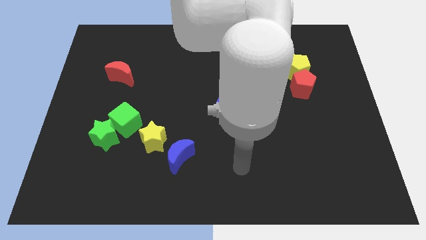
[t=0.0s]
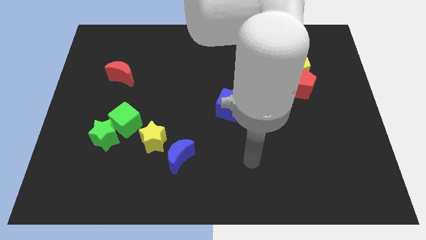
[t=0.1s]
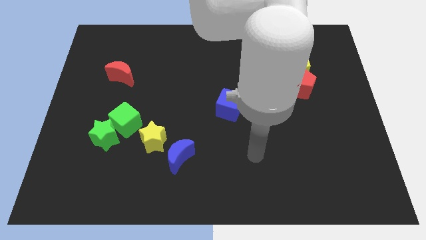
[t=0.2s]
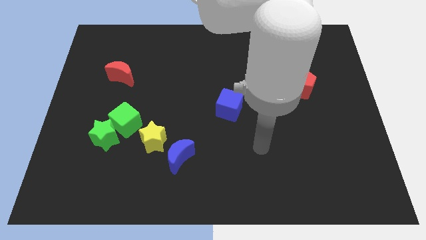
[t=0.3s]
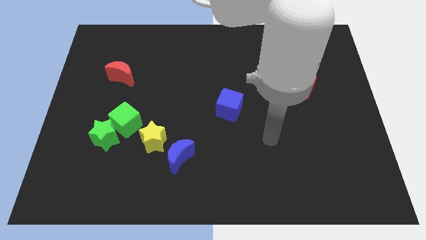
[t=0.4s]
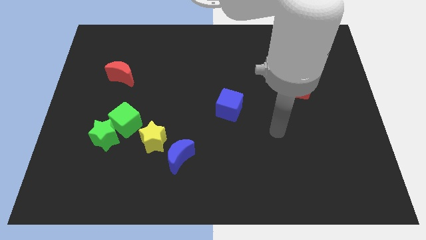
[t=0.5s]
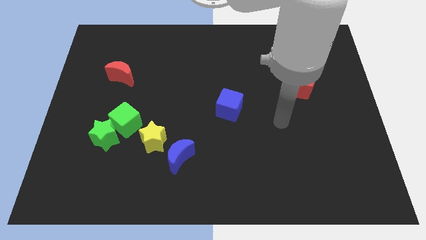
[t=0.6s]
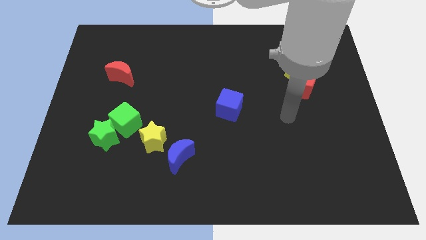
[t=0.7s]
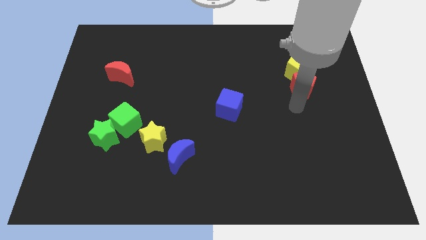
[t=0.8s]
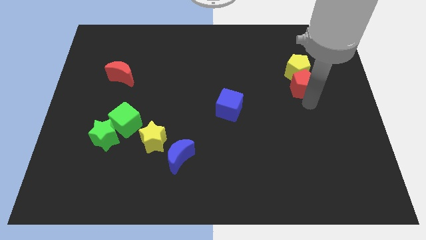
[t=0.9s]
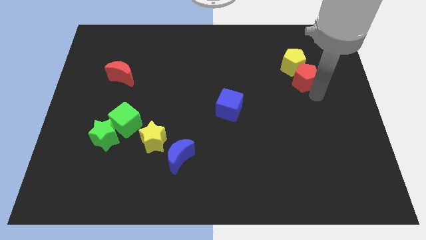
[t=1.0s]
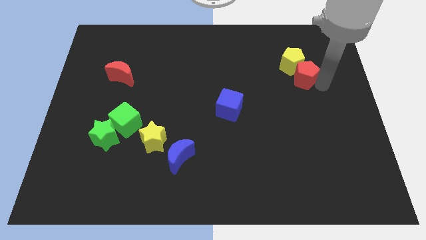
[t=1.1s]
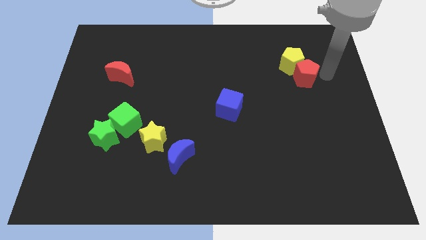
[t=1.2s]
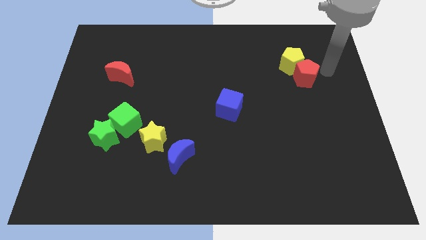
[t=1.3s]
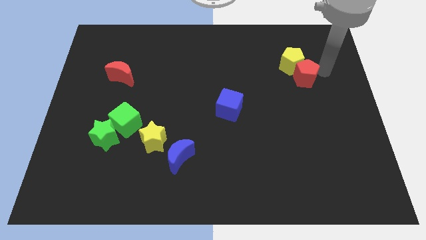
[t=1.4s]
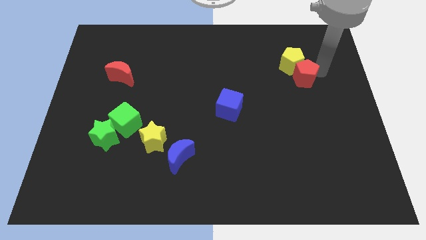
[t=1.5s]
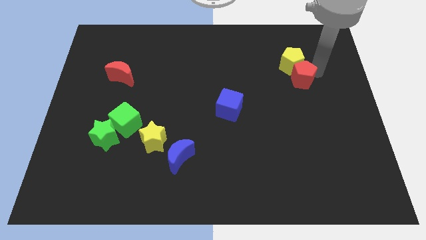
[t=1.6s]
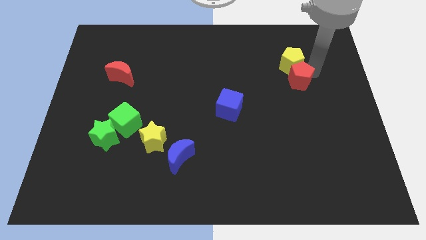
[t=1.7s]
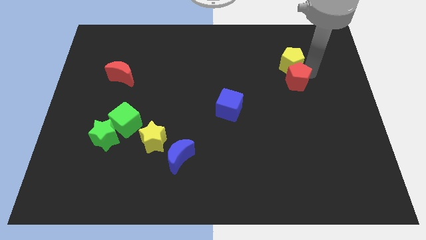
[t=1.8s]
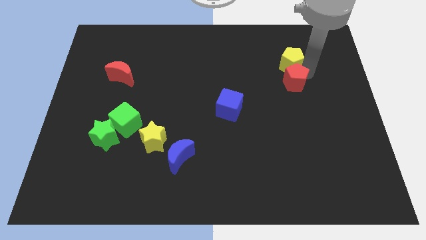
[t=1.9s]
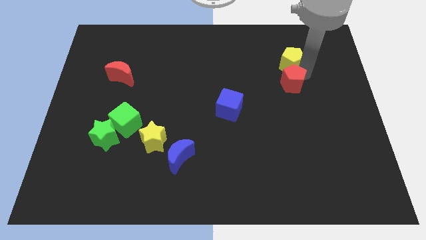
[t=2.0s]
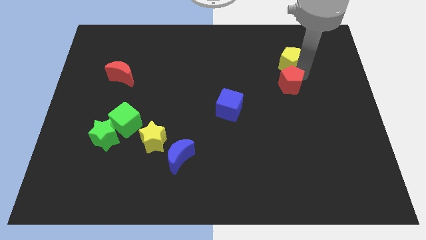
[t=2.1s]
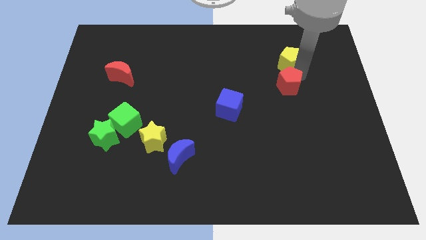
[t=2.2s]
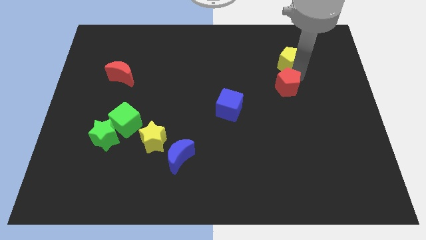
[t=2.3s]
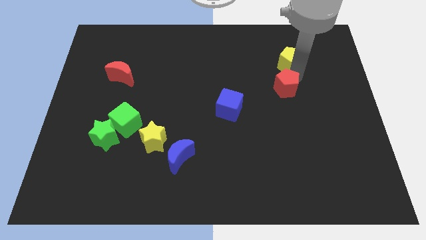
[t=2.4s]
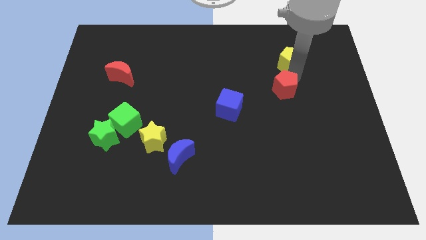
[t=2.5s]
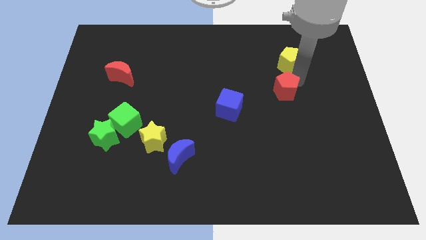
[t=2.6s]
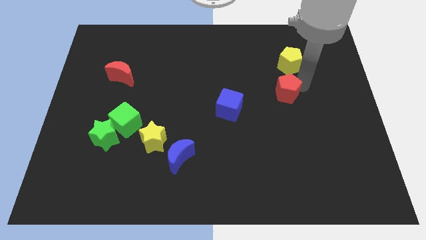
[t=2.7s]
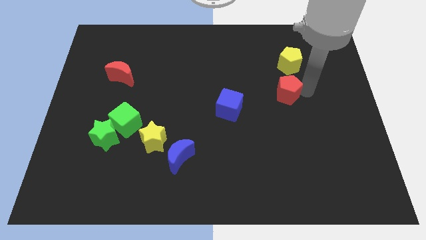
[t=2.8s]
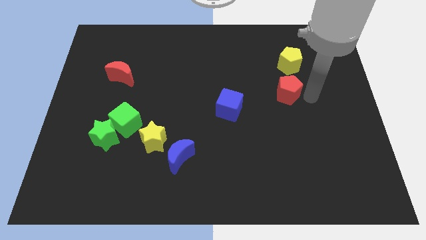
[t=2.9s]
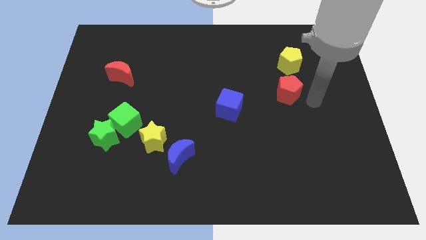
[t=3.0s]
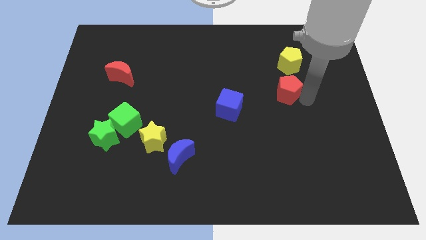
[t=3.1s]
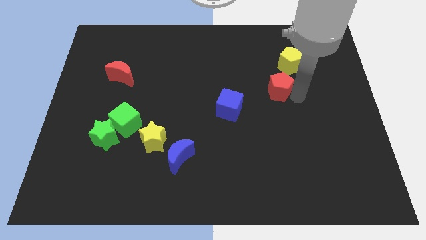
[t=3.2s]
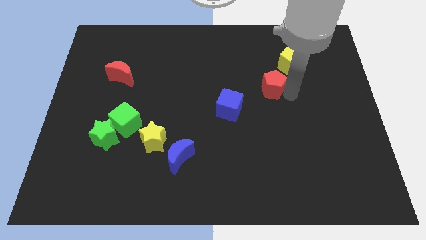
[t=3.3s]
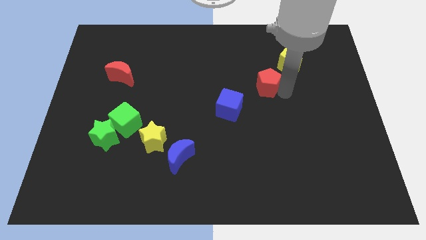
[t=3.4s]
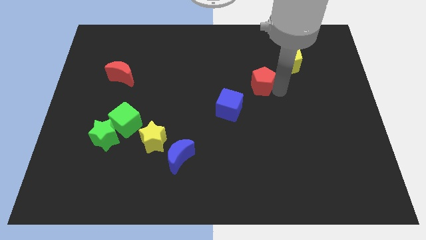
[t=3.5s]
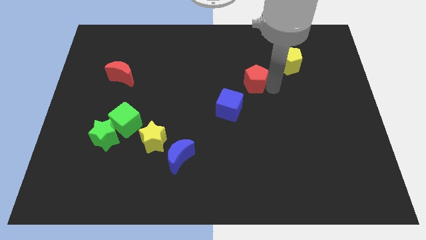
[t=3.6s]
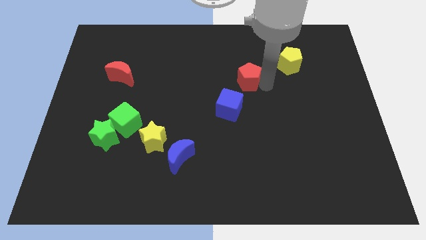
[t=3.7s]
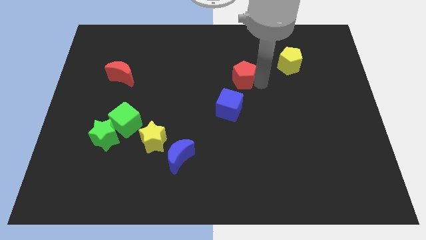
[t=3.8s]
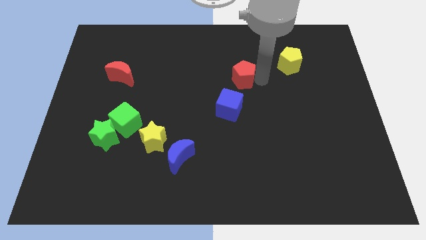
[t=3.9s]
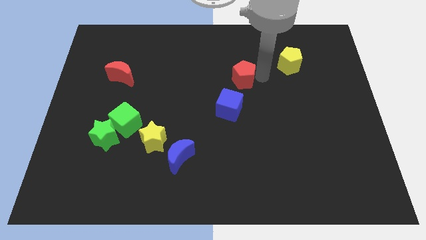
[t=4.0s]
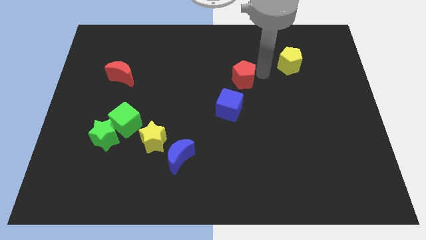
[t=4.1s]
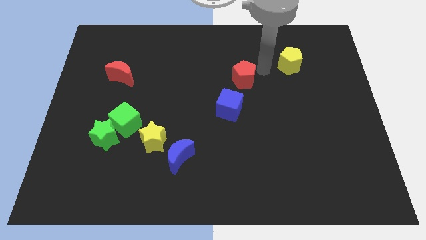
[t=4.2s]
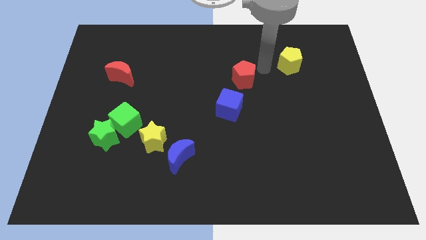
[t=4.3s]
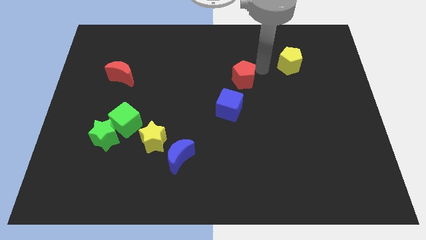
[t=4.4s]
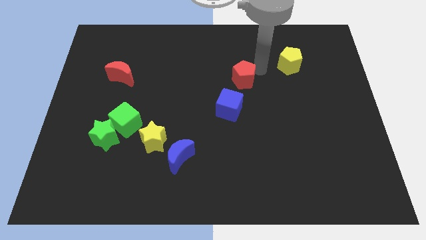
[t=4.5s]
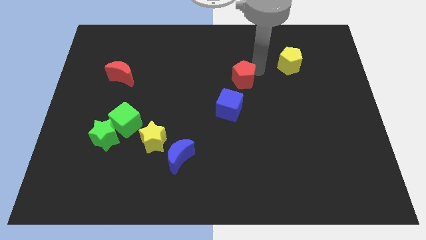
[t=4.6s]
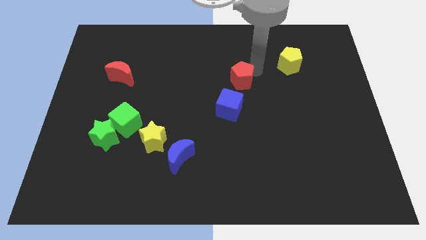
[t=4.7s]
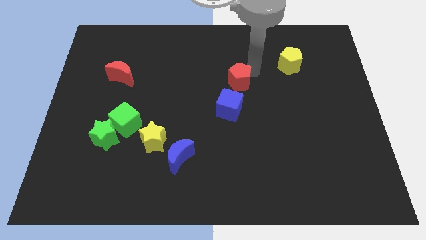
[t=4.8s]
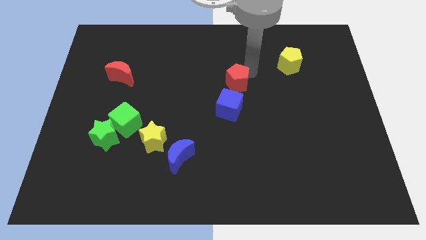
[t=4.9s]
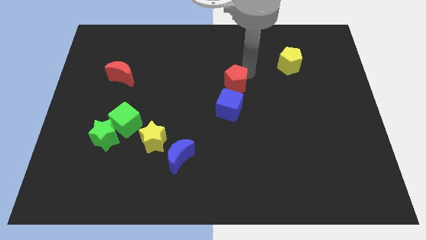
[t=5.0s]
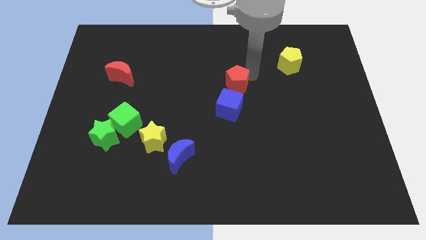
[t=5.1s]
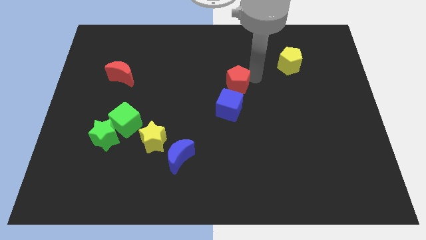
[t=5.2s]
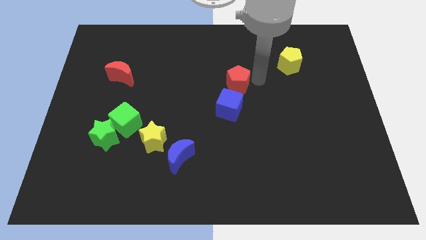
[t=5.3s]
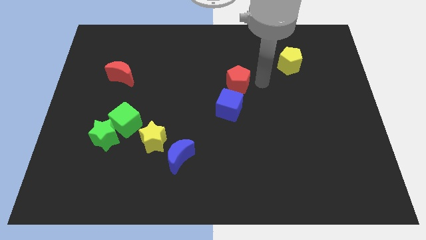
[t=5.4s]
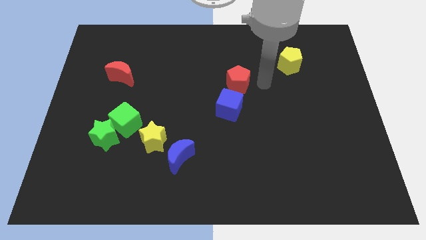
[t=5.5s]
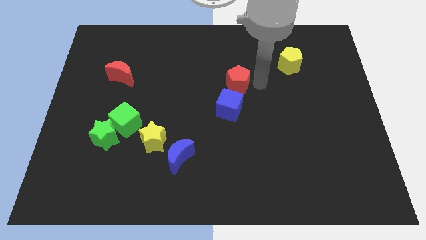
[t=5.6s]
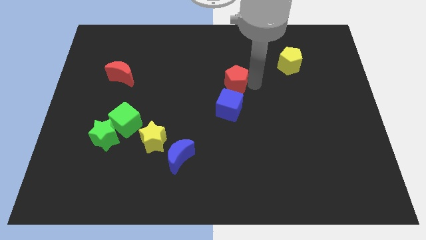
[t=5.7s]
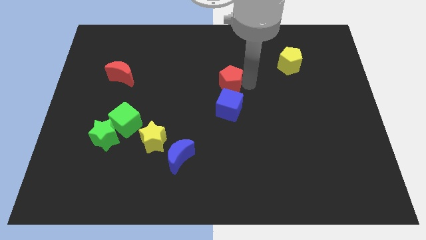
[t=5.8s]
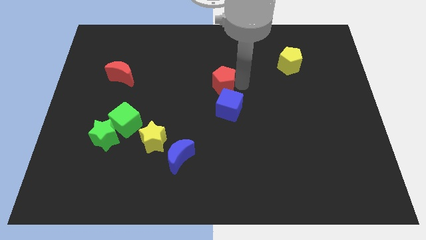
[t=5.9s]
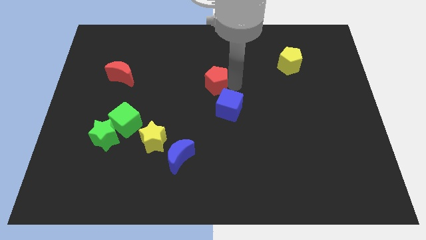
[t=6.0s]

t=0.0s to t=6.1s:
slide the red pentagon to the left

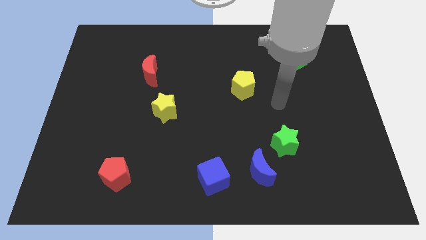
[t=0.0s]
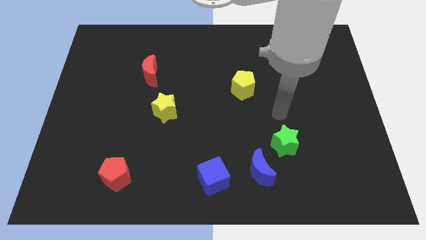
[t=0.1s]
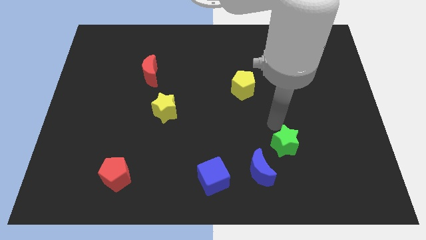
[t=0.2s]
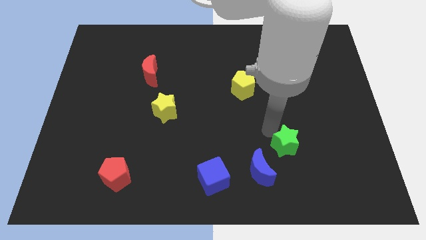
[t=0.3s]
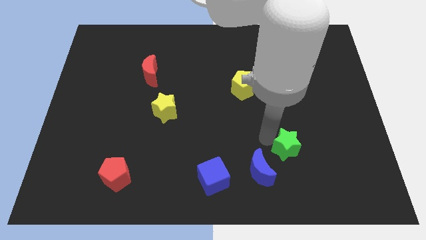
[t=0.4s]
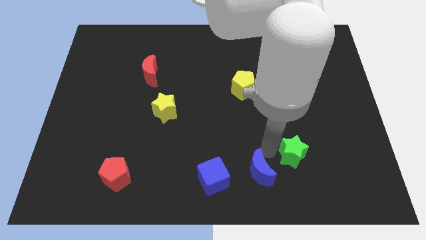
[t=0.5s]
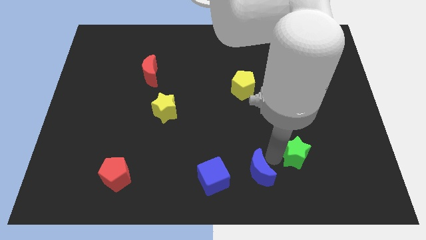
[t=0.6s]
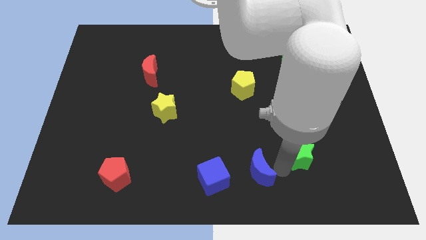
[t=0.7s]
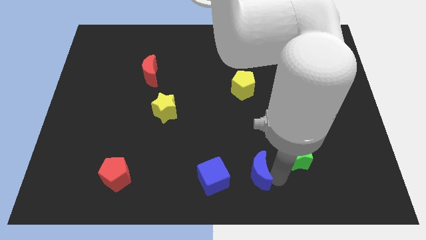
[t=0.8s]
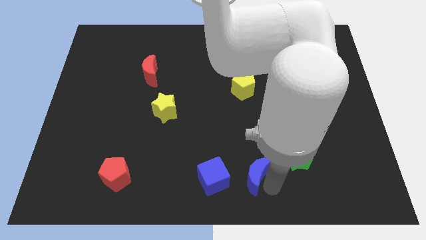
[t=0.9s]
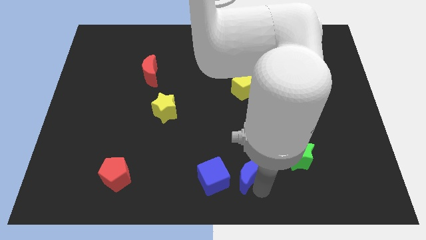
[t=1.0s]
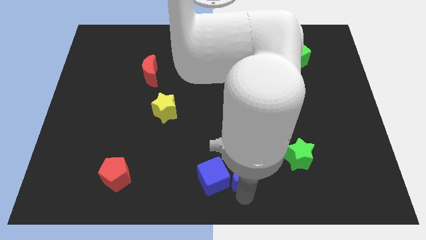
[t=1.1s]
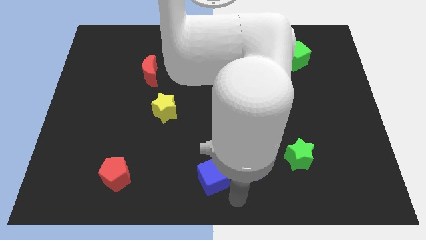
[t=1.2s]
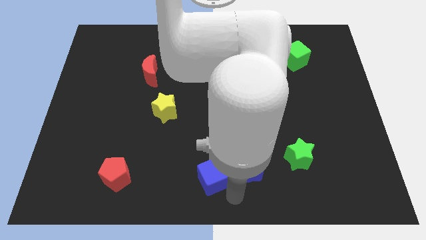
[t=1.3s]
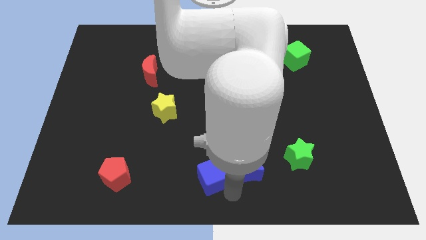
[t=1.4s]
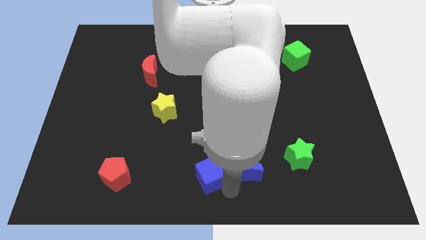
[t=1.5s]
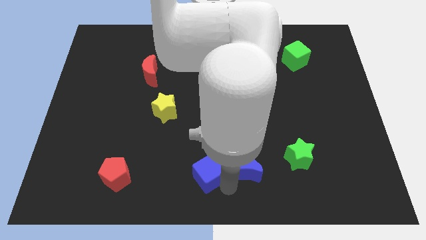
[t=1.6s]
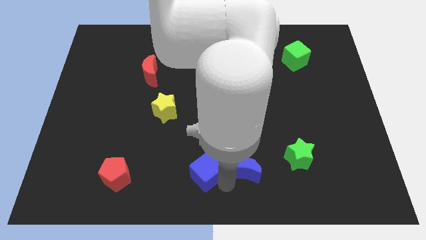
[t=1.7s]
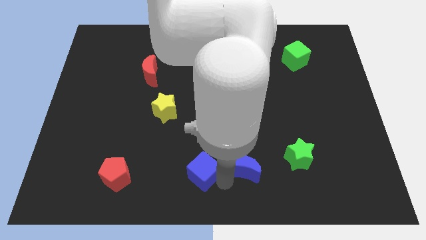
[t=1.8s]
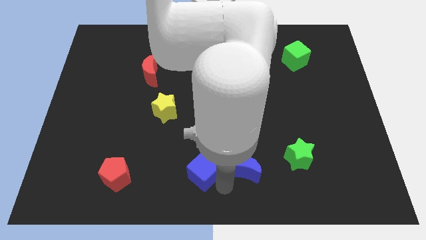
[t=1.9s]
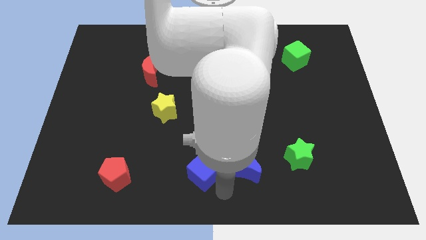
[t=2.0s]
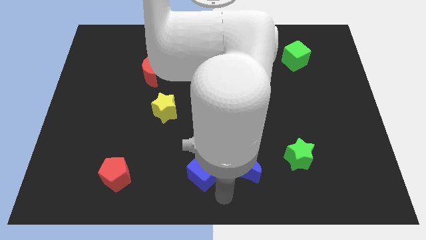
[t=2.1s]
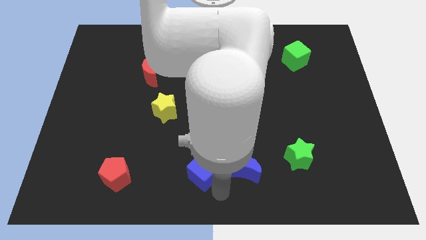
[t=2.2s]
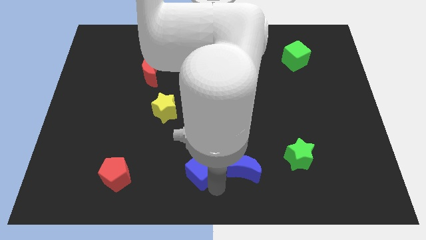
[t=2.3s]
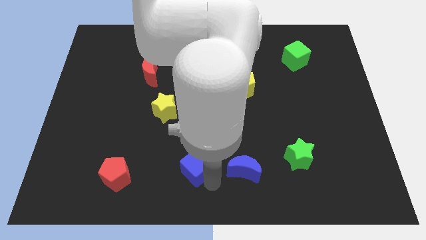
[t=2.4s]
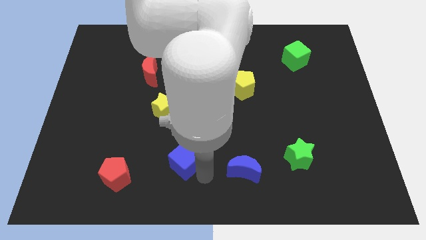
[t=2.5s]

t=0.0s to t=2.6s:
slide the blue cube a little bit upwards and to the left
